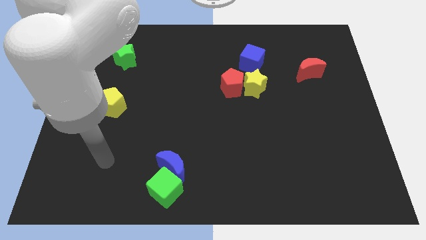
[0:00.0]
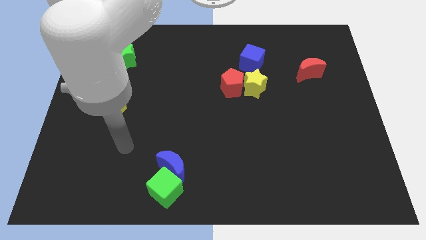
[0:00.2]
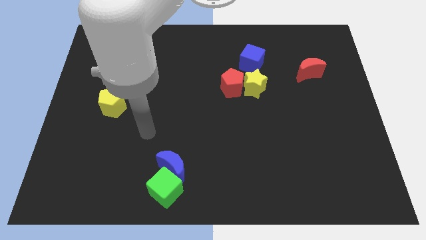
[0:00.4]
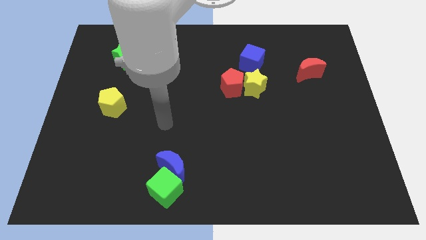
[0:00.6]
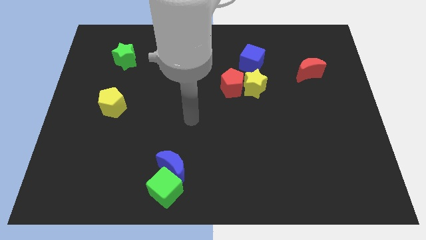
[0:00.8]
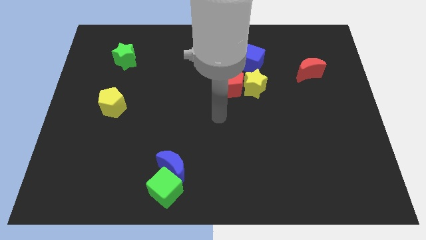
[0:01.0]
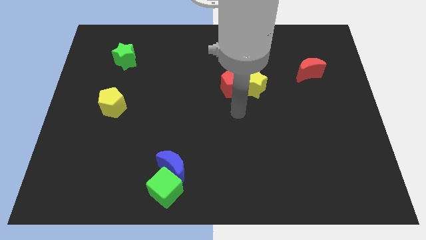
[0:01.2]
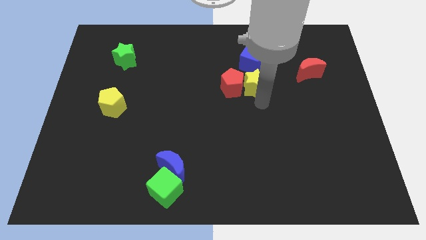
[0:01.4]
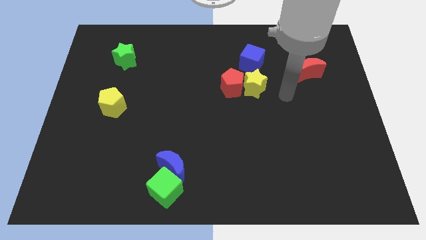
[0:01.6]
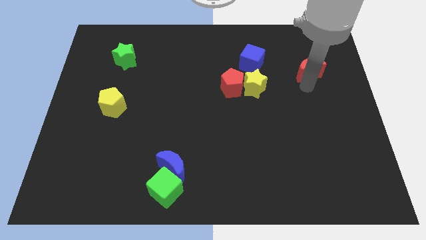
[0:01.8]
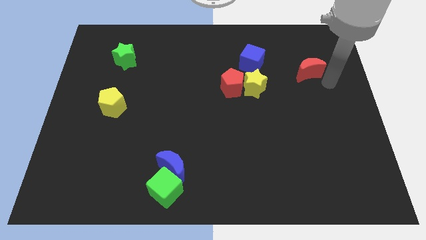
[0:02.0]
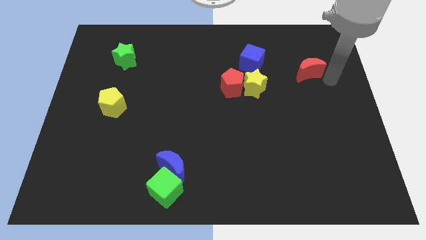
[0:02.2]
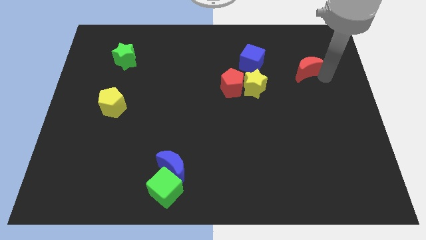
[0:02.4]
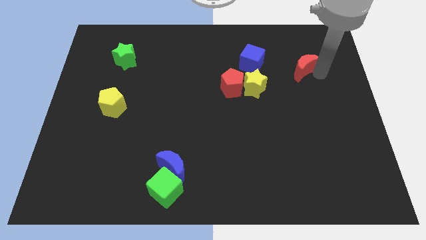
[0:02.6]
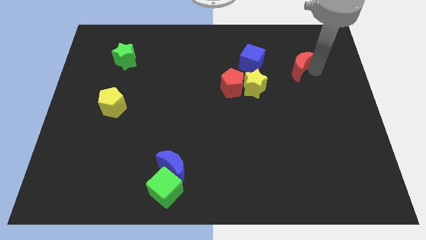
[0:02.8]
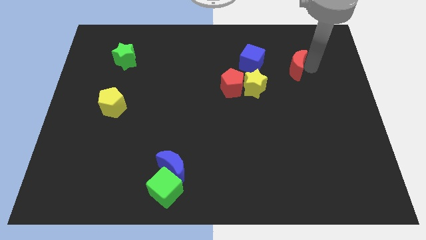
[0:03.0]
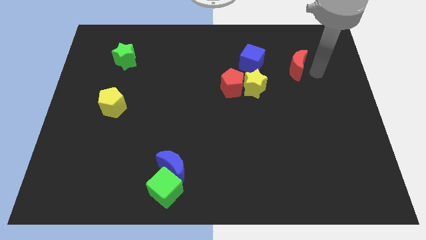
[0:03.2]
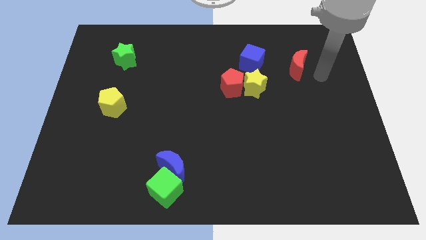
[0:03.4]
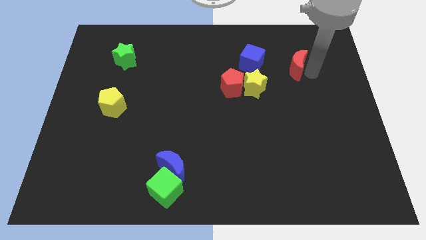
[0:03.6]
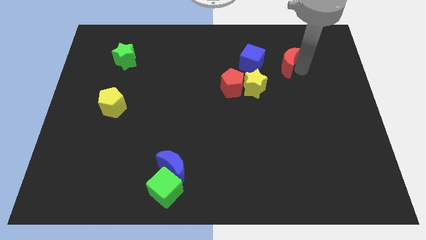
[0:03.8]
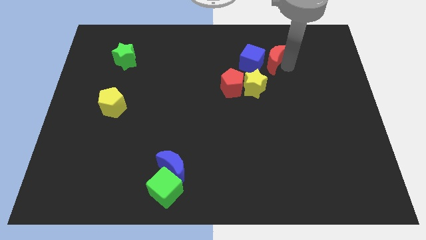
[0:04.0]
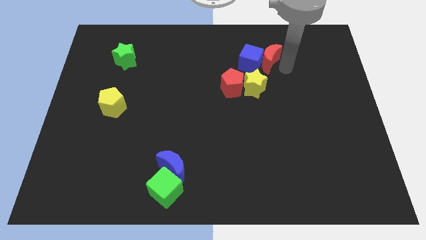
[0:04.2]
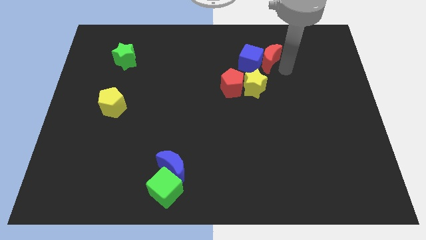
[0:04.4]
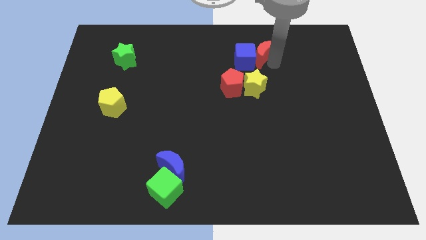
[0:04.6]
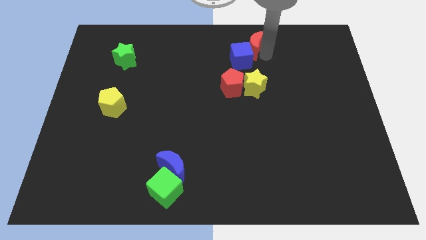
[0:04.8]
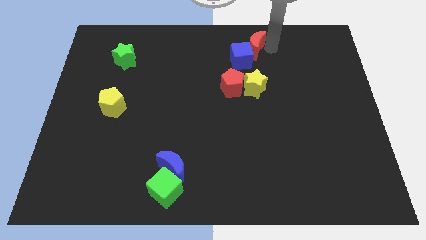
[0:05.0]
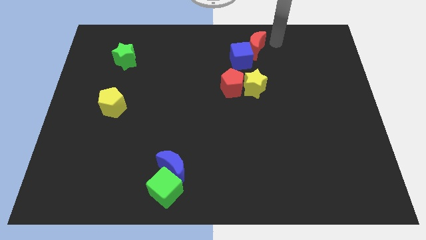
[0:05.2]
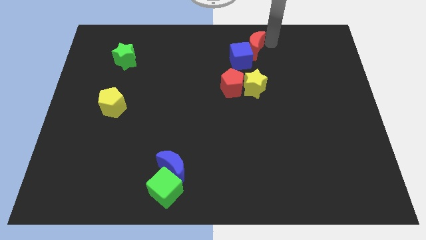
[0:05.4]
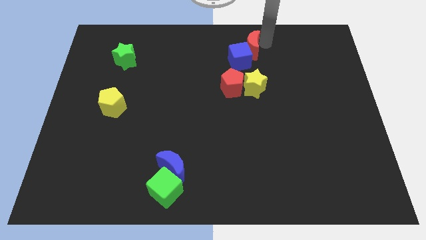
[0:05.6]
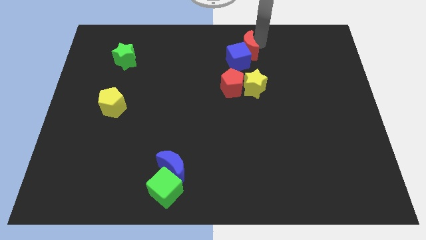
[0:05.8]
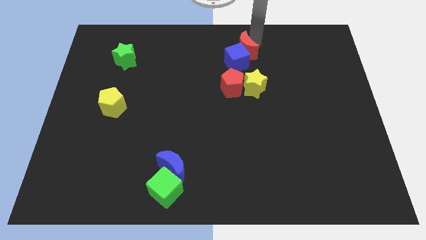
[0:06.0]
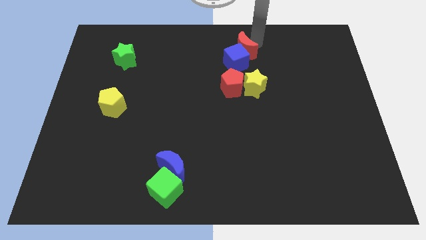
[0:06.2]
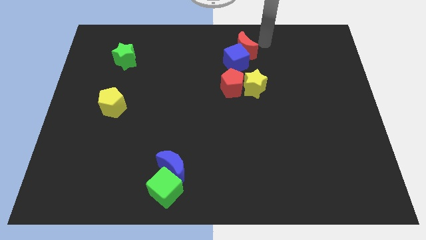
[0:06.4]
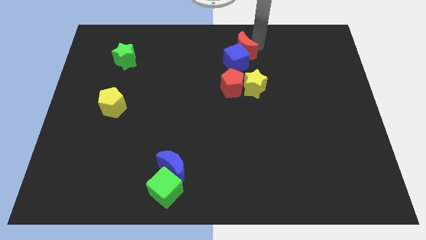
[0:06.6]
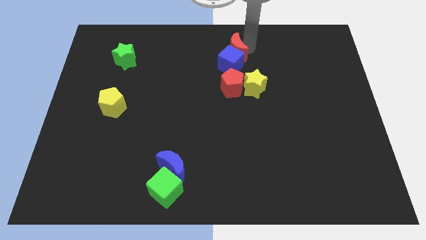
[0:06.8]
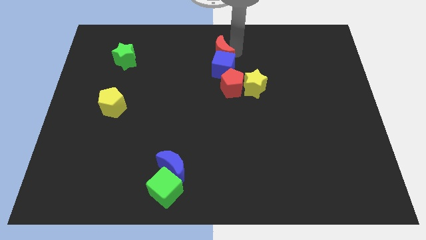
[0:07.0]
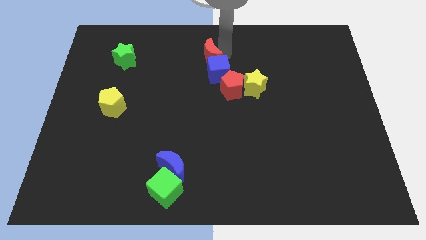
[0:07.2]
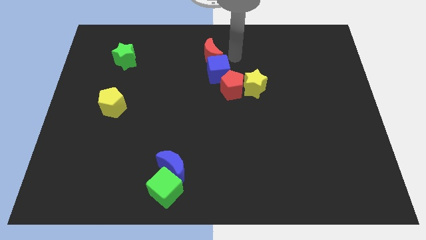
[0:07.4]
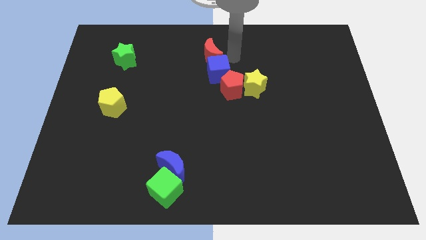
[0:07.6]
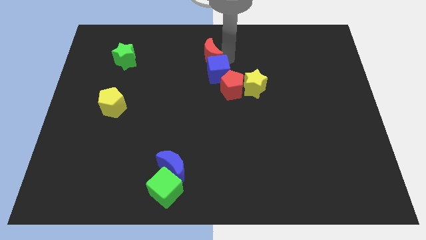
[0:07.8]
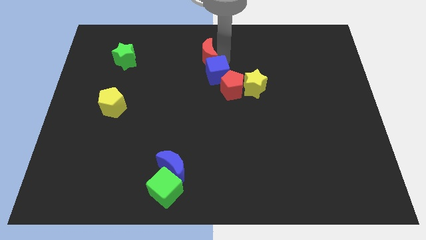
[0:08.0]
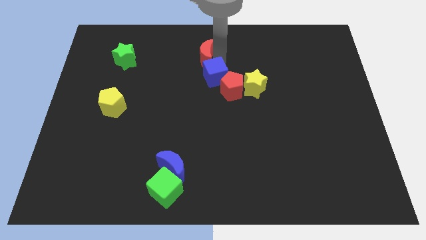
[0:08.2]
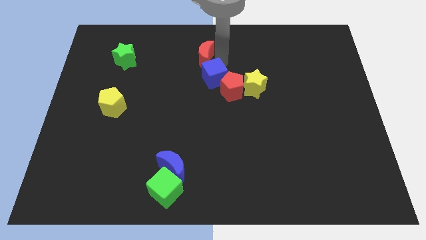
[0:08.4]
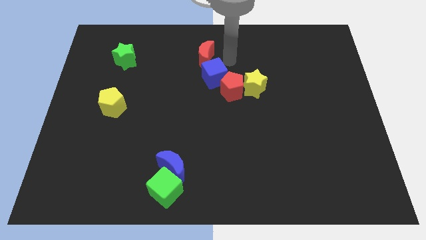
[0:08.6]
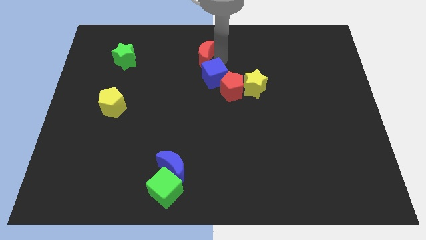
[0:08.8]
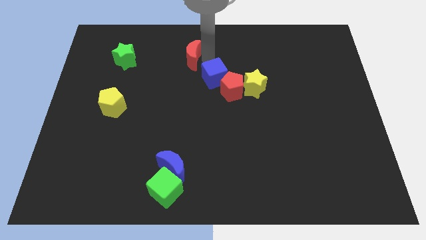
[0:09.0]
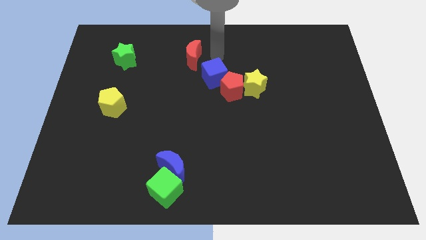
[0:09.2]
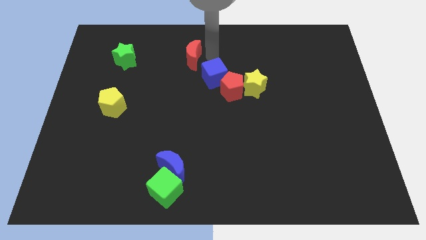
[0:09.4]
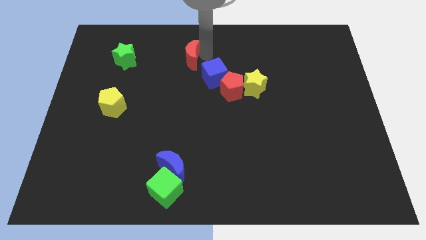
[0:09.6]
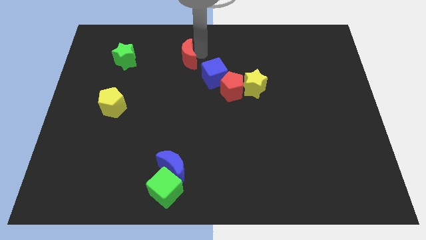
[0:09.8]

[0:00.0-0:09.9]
move the red moon just right of the green star

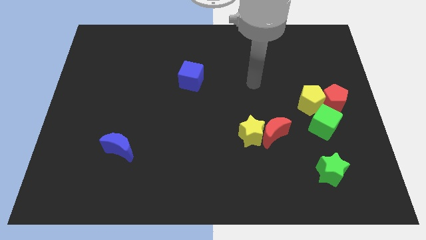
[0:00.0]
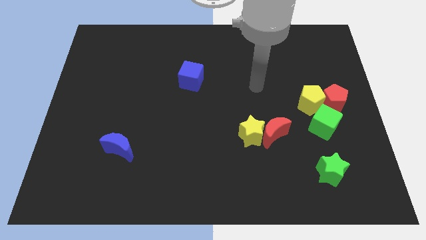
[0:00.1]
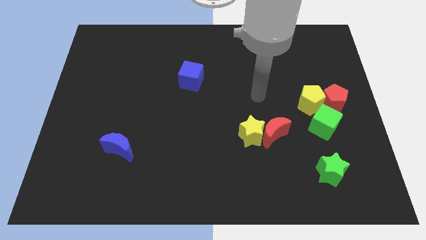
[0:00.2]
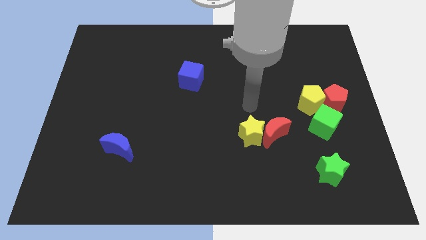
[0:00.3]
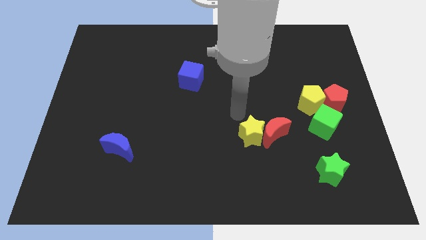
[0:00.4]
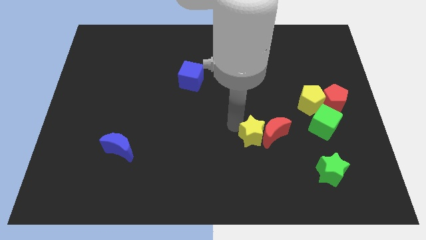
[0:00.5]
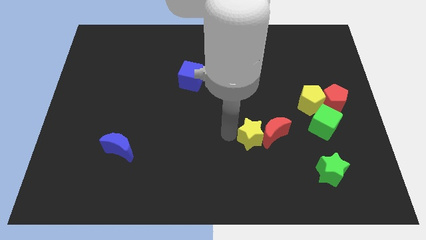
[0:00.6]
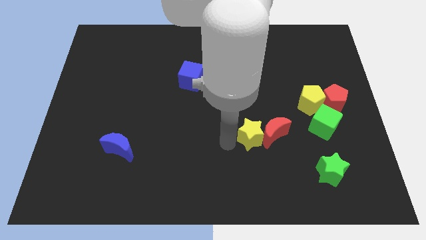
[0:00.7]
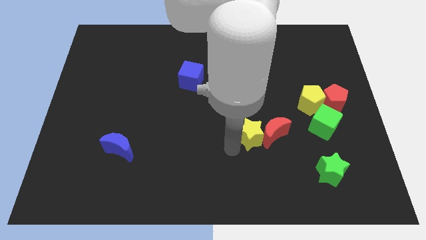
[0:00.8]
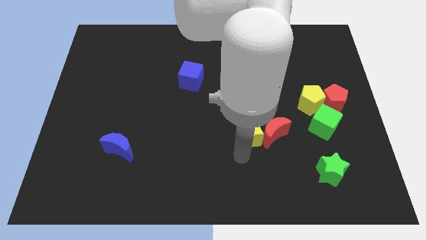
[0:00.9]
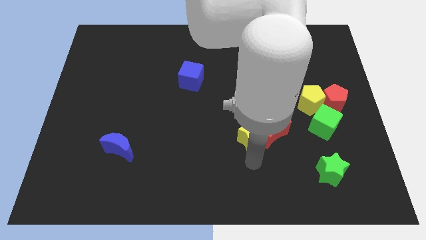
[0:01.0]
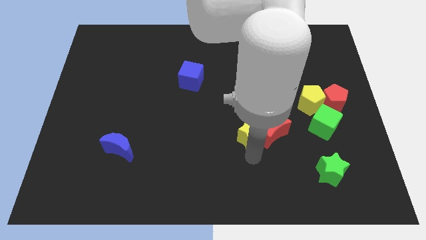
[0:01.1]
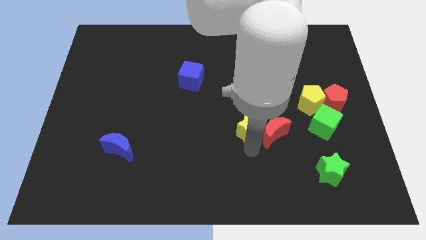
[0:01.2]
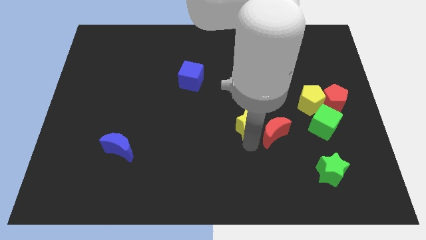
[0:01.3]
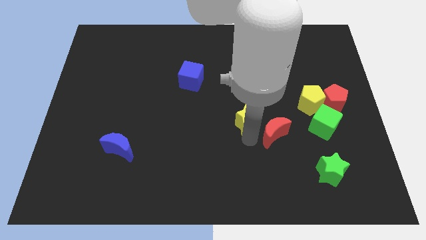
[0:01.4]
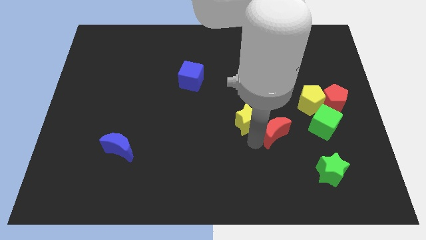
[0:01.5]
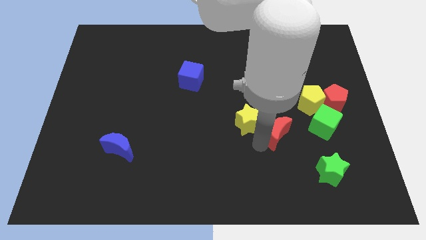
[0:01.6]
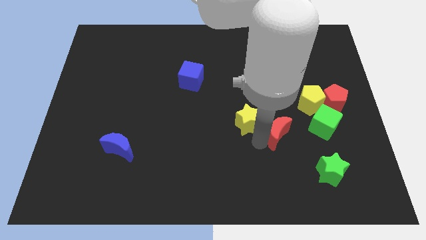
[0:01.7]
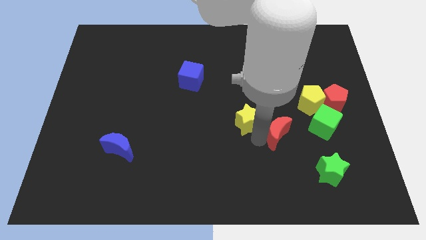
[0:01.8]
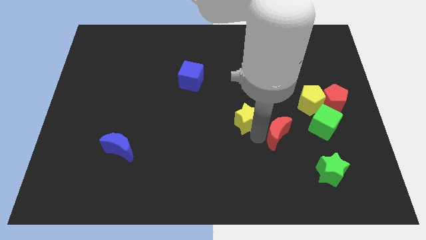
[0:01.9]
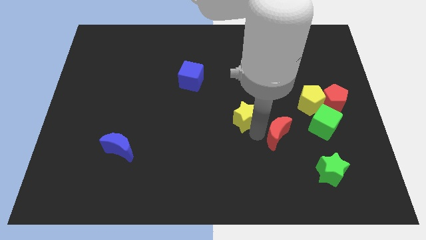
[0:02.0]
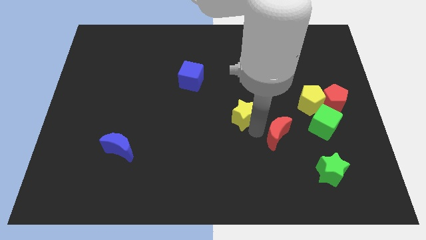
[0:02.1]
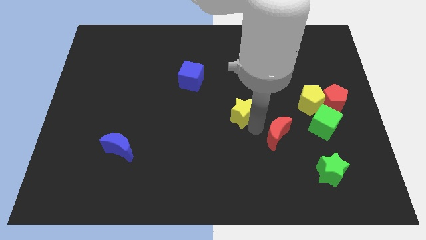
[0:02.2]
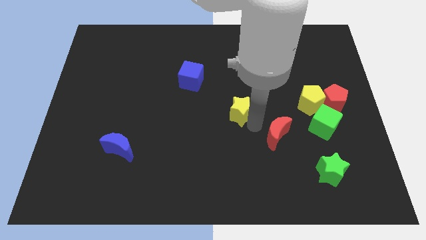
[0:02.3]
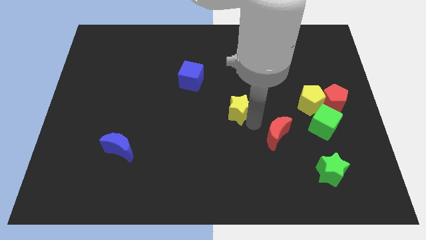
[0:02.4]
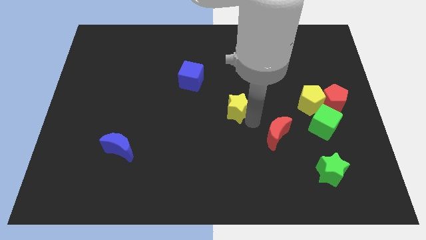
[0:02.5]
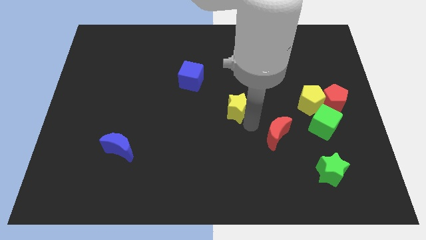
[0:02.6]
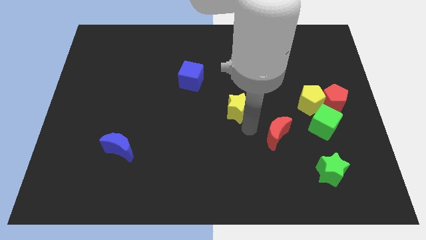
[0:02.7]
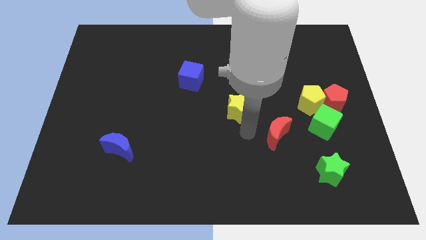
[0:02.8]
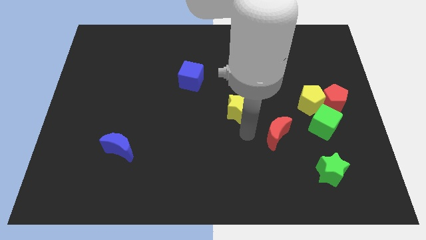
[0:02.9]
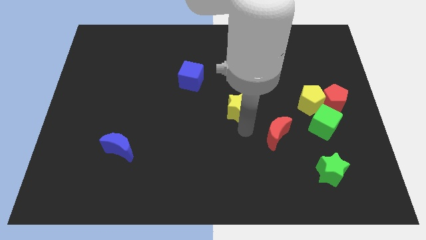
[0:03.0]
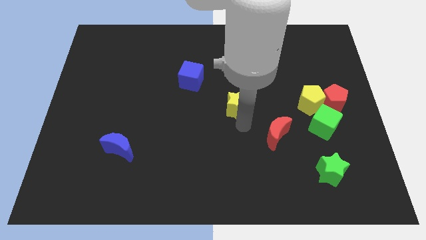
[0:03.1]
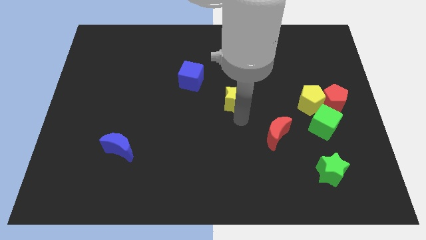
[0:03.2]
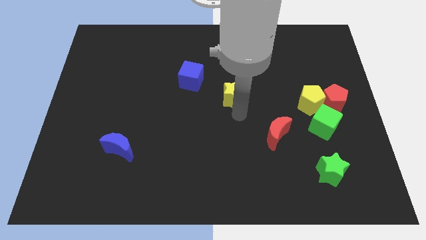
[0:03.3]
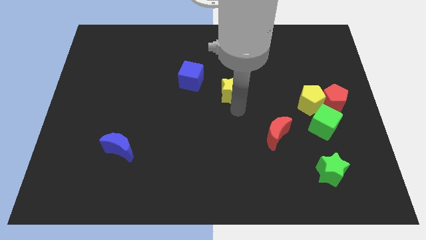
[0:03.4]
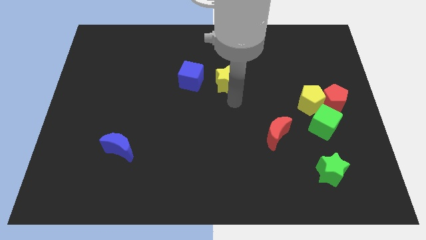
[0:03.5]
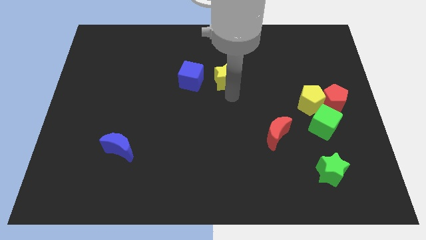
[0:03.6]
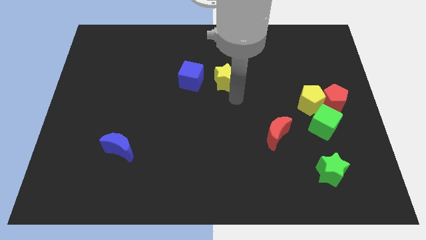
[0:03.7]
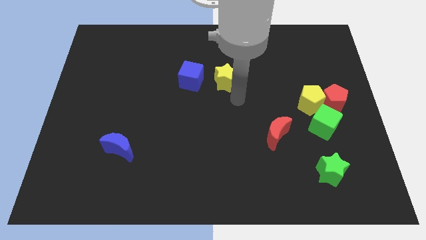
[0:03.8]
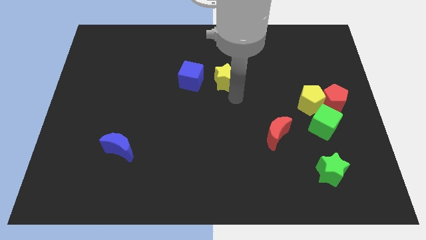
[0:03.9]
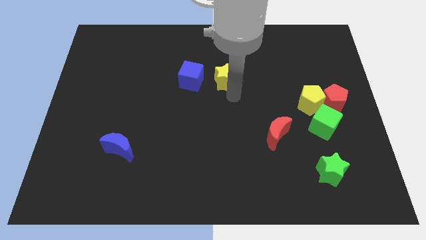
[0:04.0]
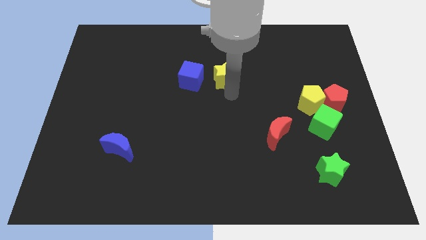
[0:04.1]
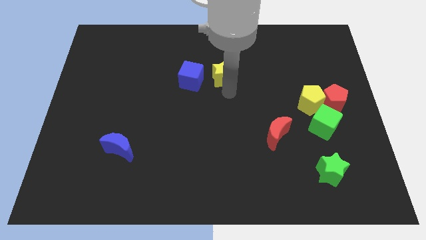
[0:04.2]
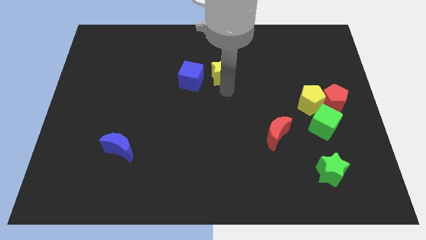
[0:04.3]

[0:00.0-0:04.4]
put the yellow star diagonally up and to the right of the blue cube
